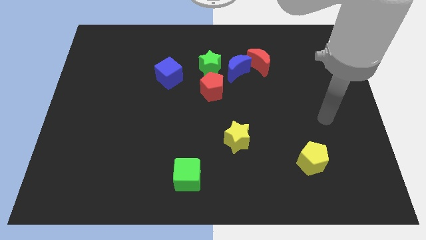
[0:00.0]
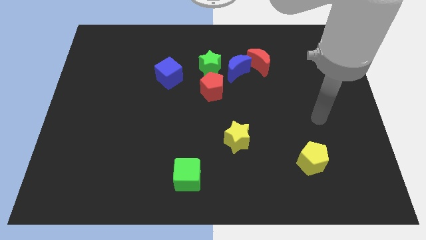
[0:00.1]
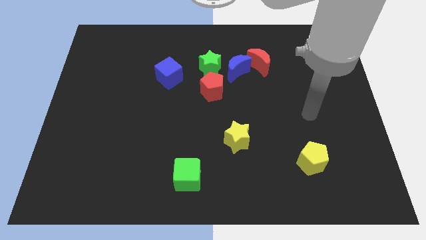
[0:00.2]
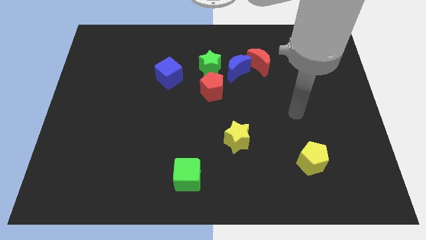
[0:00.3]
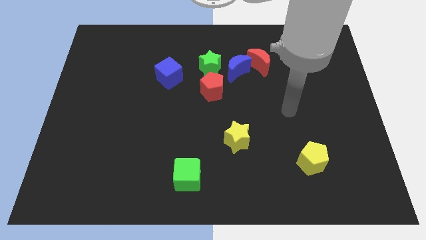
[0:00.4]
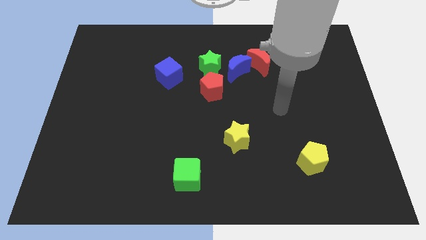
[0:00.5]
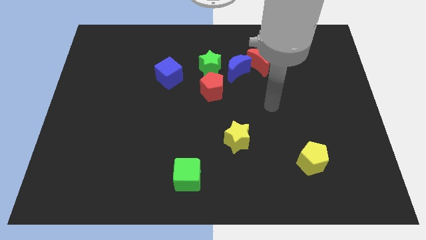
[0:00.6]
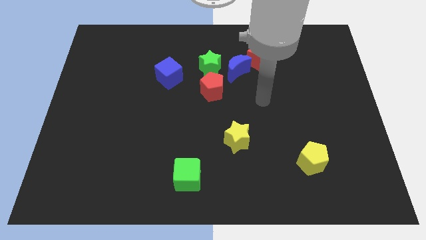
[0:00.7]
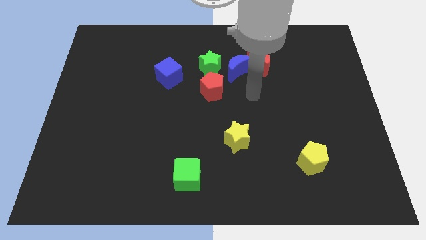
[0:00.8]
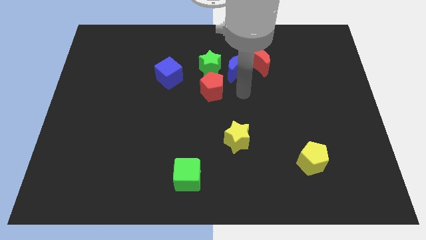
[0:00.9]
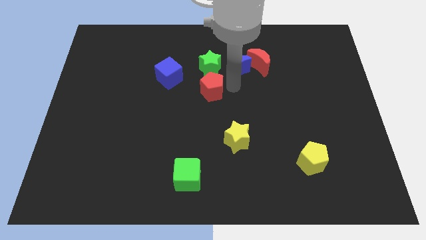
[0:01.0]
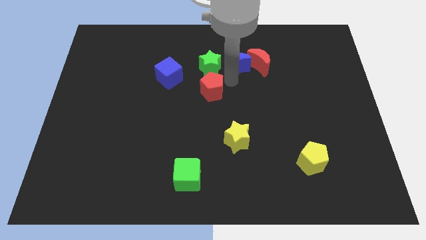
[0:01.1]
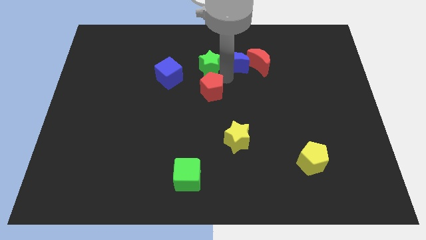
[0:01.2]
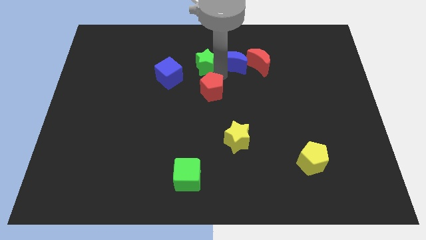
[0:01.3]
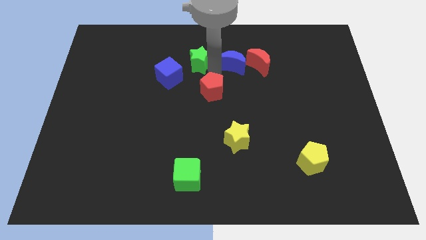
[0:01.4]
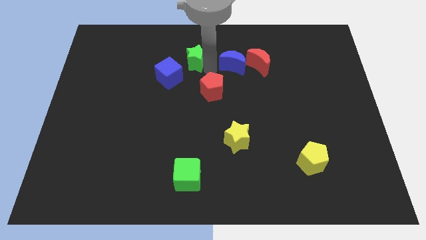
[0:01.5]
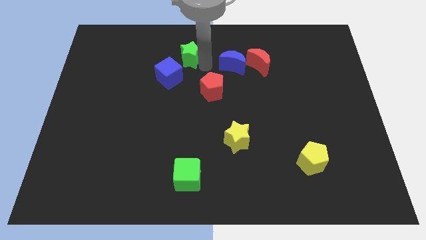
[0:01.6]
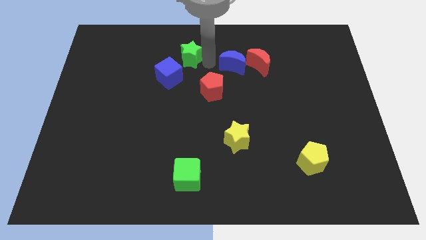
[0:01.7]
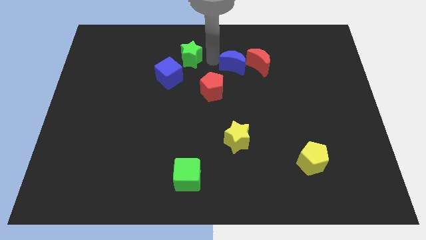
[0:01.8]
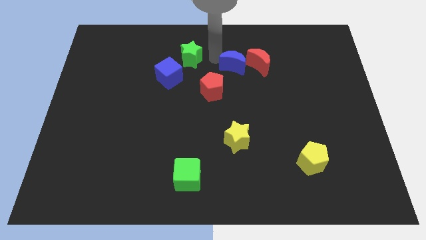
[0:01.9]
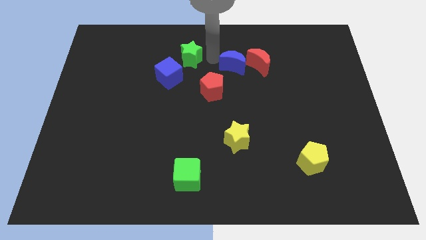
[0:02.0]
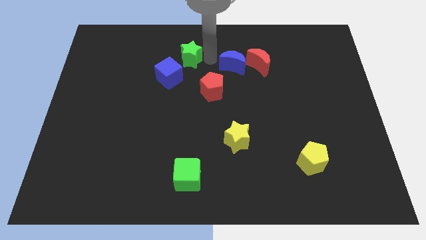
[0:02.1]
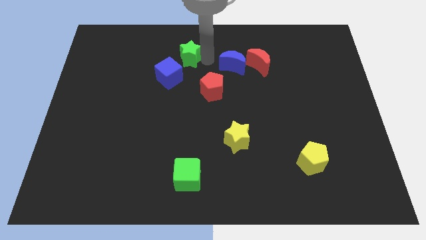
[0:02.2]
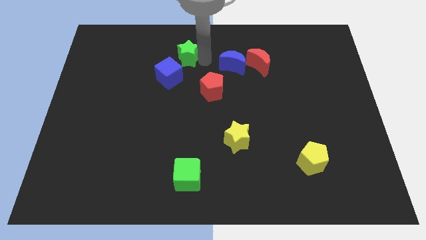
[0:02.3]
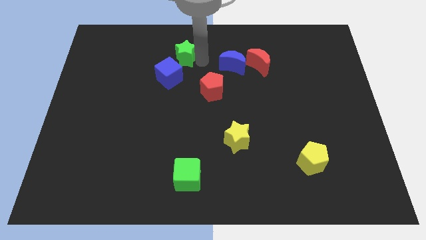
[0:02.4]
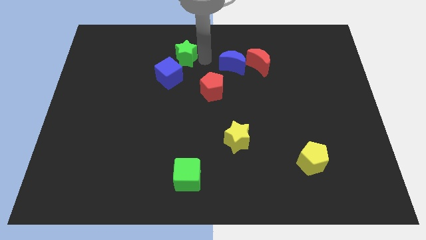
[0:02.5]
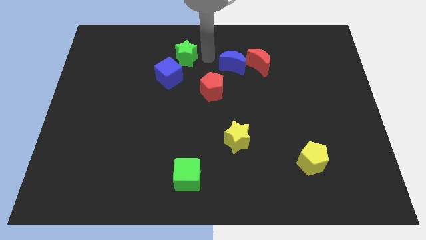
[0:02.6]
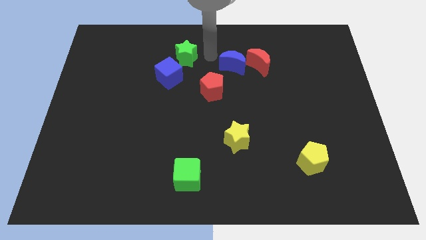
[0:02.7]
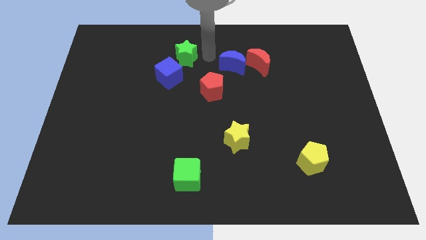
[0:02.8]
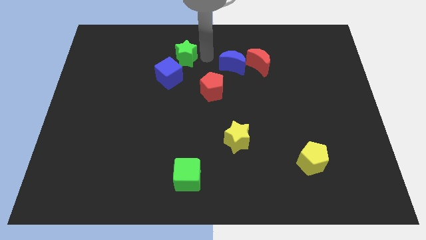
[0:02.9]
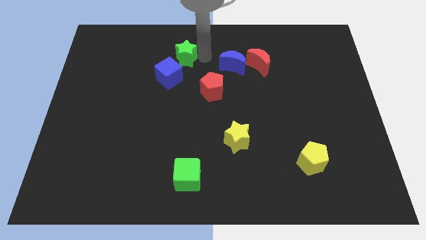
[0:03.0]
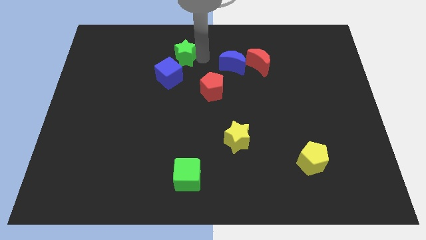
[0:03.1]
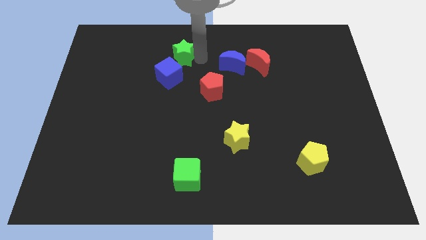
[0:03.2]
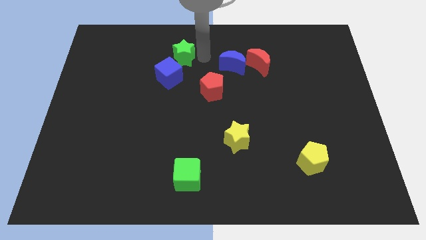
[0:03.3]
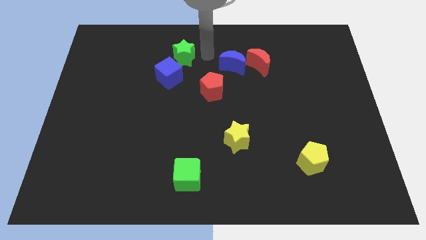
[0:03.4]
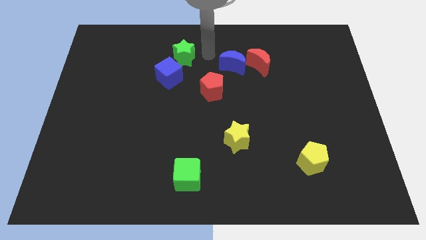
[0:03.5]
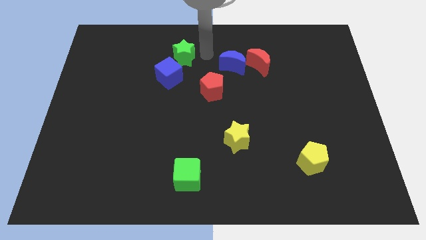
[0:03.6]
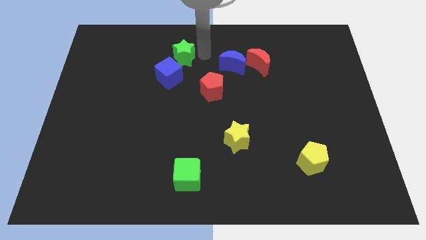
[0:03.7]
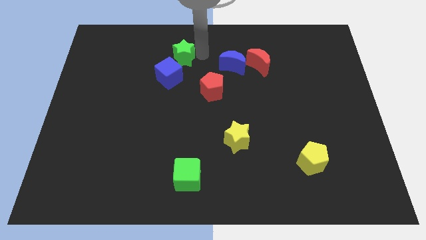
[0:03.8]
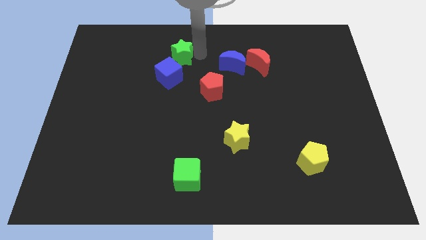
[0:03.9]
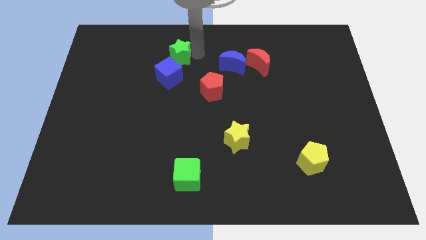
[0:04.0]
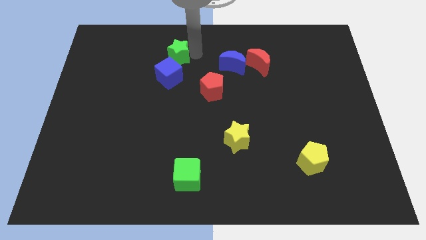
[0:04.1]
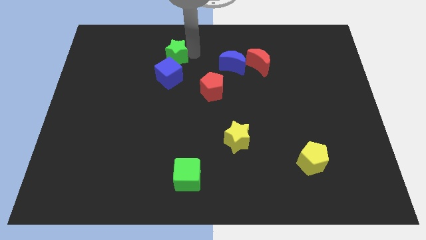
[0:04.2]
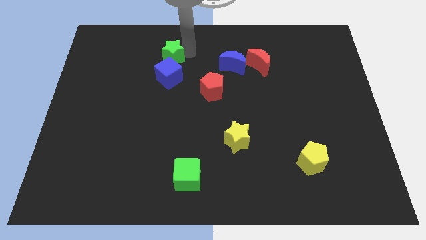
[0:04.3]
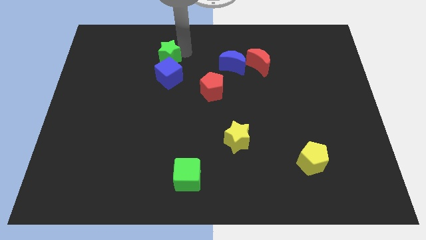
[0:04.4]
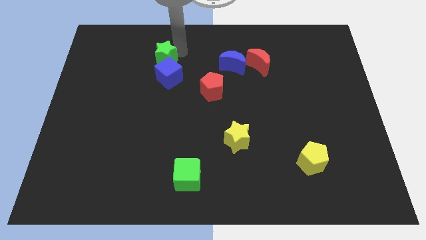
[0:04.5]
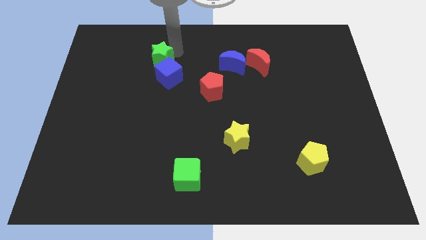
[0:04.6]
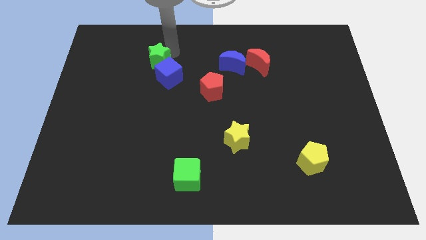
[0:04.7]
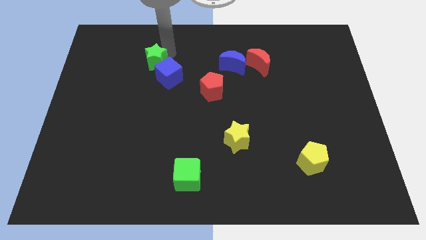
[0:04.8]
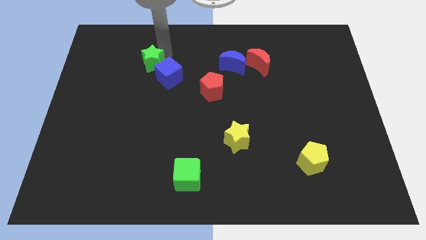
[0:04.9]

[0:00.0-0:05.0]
move the green star to the left of the blue cube

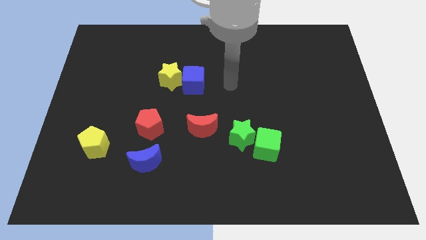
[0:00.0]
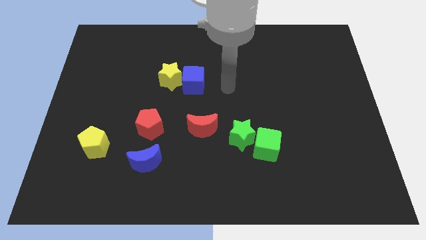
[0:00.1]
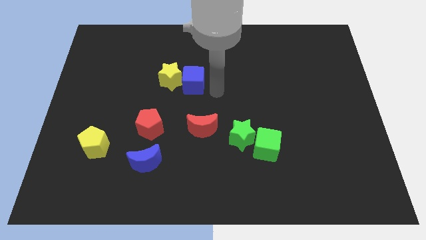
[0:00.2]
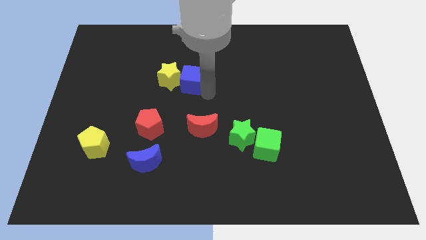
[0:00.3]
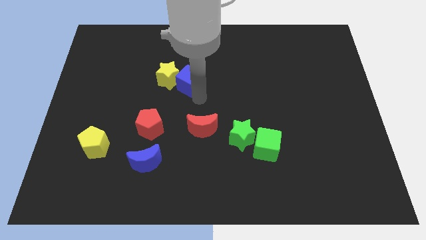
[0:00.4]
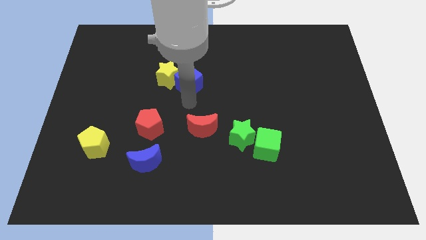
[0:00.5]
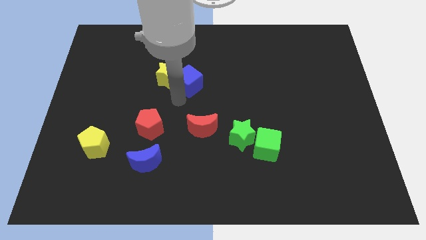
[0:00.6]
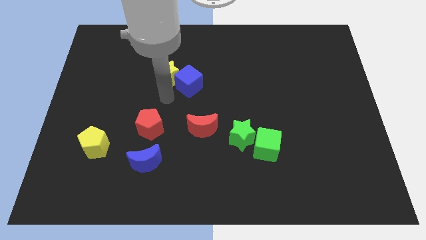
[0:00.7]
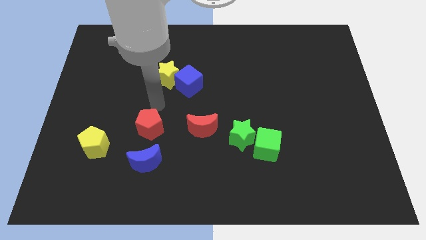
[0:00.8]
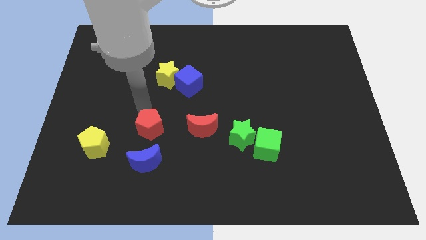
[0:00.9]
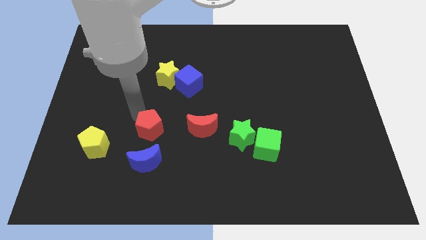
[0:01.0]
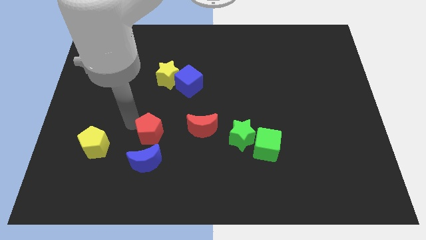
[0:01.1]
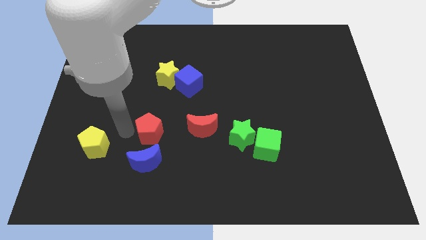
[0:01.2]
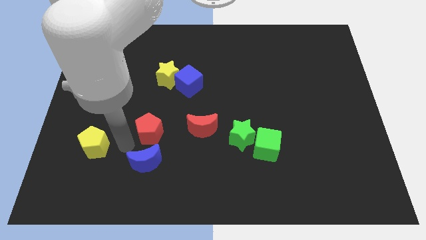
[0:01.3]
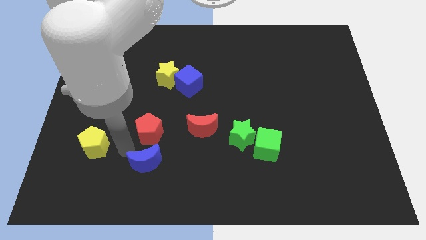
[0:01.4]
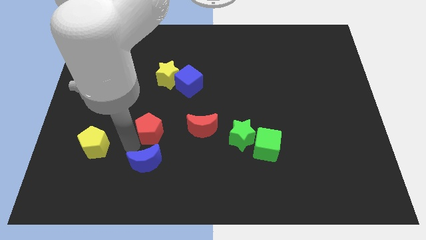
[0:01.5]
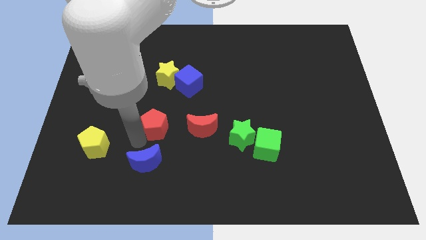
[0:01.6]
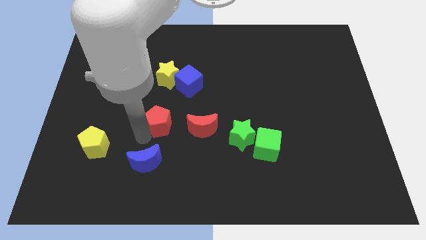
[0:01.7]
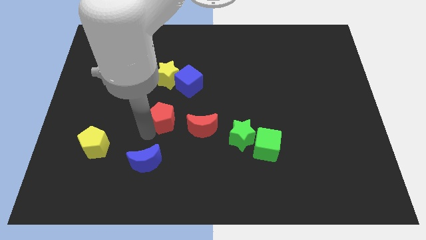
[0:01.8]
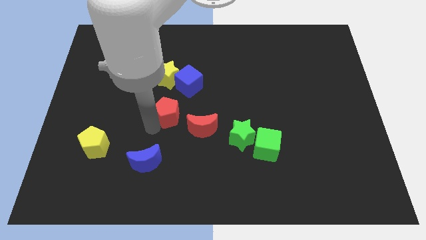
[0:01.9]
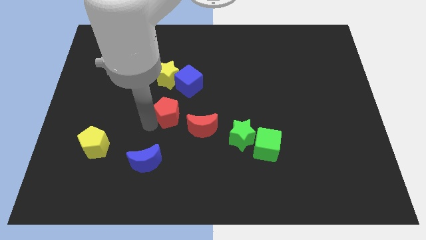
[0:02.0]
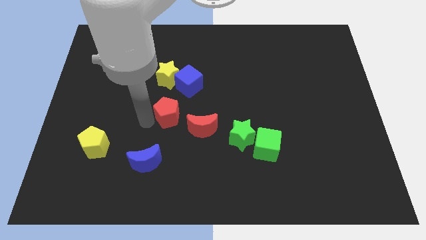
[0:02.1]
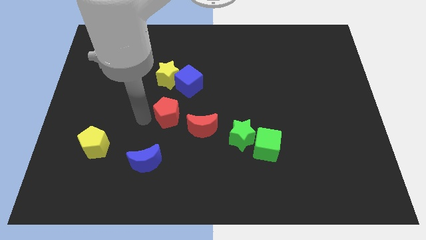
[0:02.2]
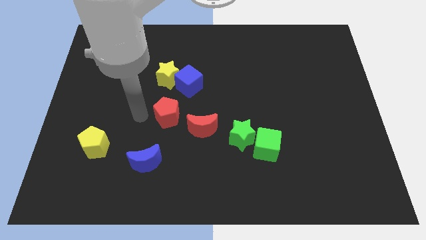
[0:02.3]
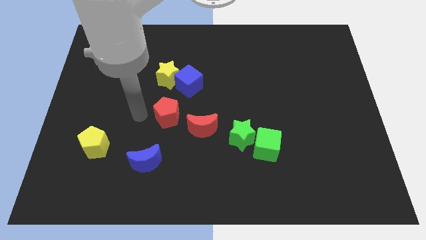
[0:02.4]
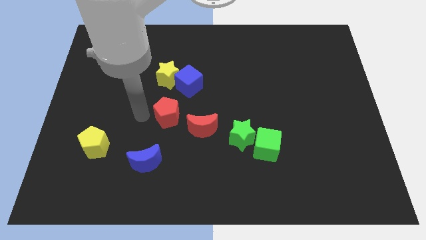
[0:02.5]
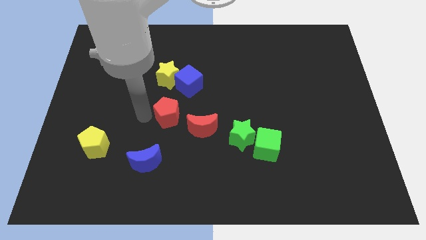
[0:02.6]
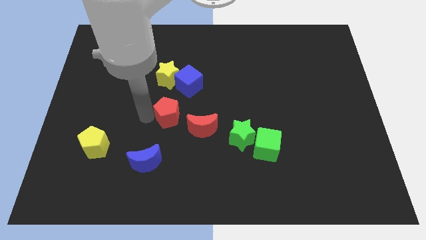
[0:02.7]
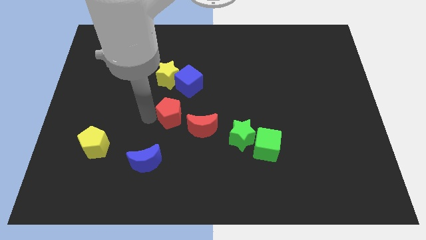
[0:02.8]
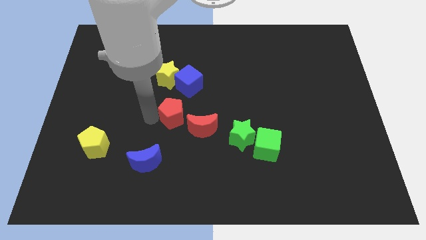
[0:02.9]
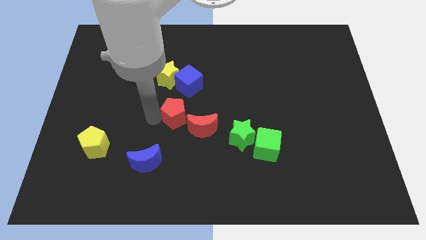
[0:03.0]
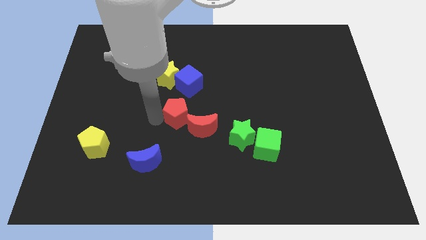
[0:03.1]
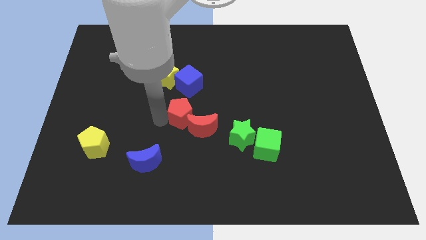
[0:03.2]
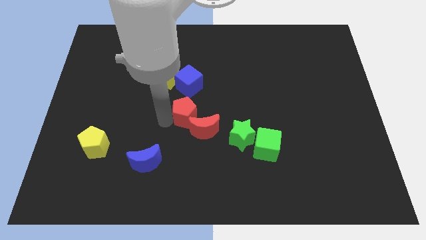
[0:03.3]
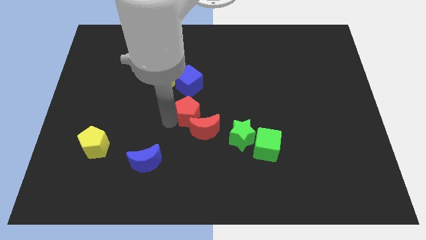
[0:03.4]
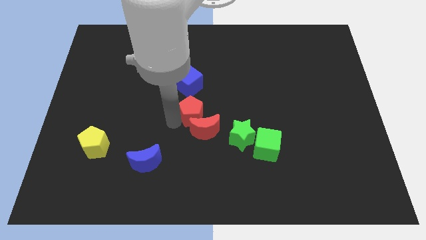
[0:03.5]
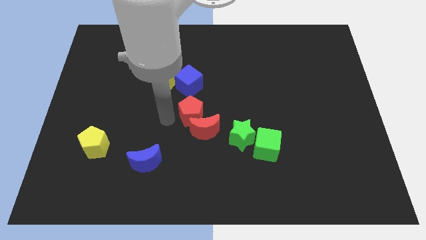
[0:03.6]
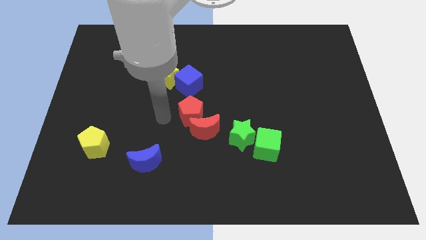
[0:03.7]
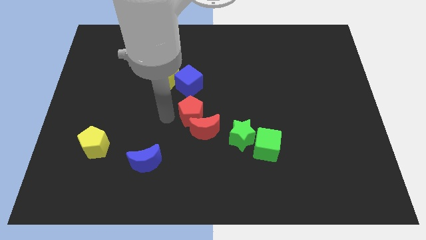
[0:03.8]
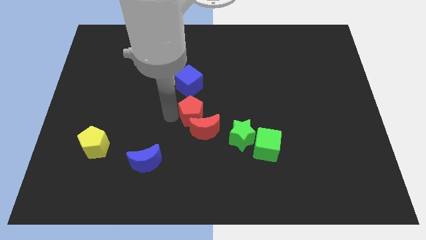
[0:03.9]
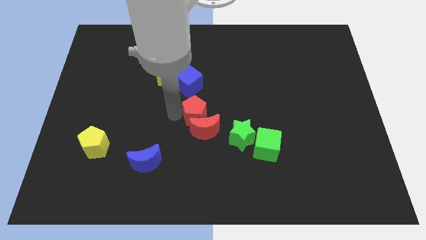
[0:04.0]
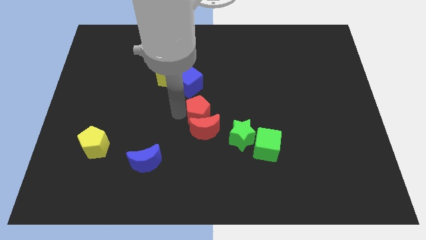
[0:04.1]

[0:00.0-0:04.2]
put the red pentagon to the top right side of the red moon
